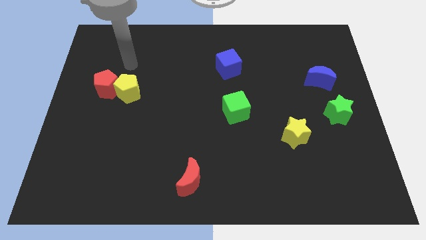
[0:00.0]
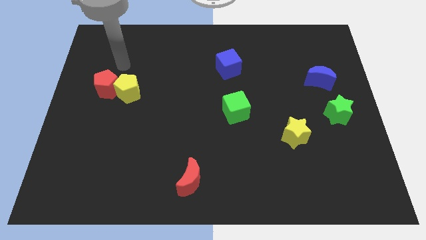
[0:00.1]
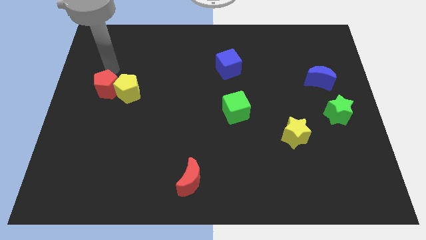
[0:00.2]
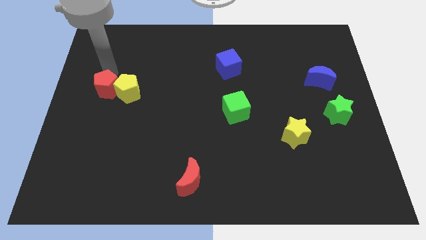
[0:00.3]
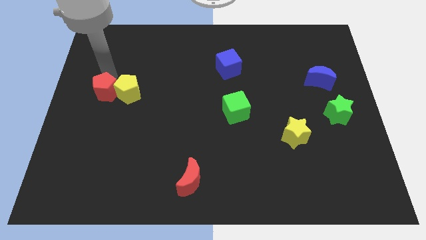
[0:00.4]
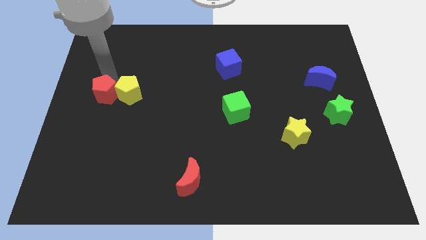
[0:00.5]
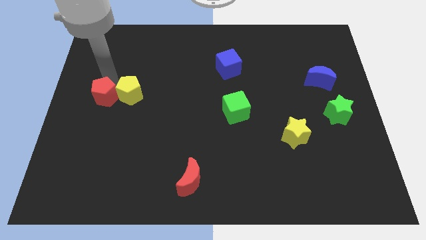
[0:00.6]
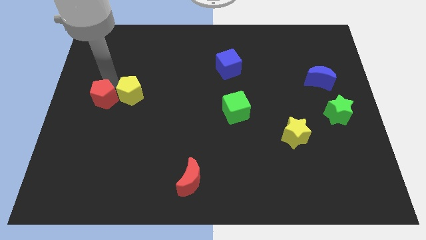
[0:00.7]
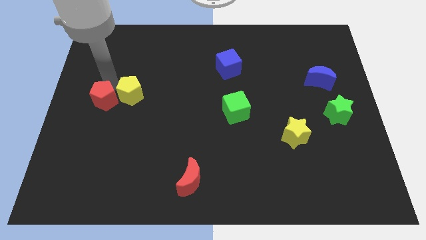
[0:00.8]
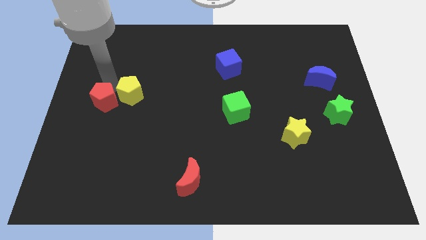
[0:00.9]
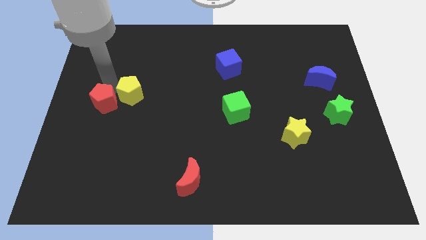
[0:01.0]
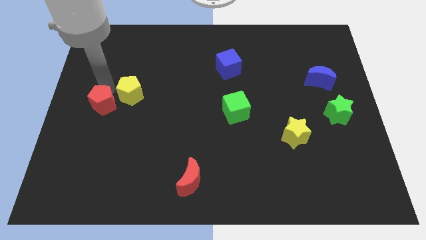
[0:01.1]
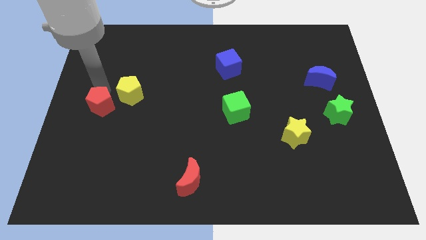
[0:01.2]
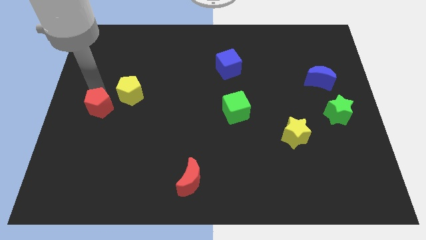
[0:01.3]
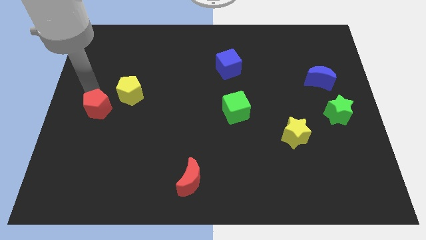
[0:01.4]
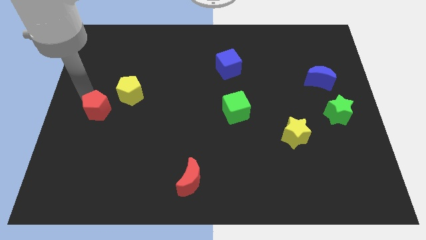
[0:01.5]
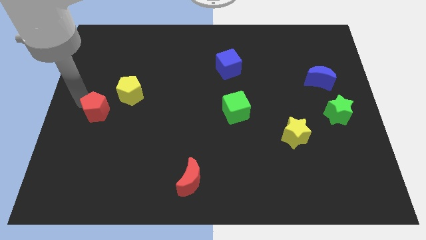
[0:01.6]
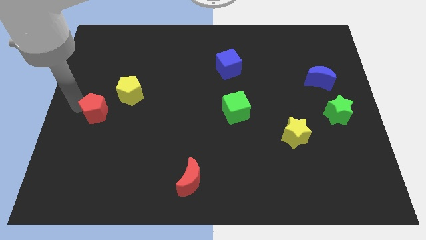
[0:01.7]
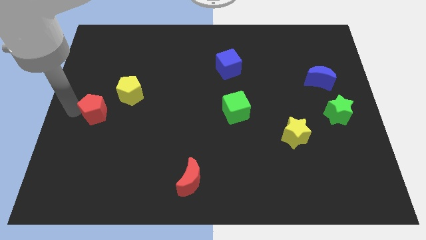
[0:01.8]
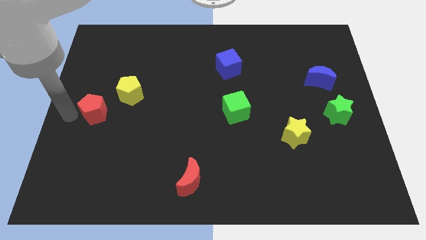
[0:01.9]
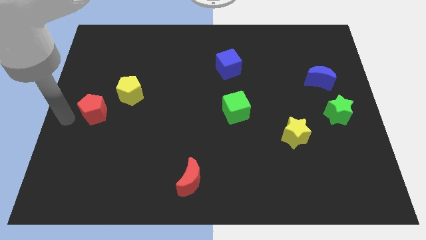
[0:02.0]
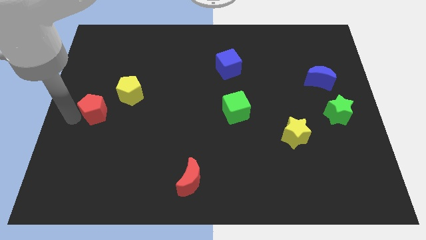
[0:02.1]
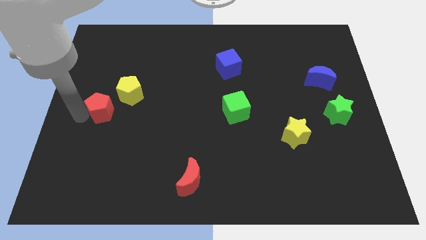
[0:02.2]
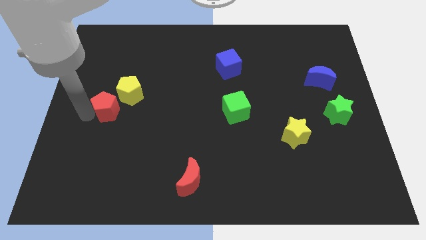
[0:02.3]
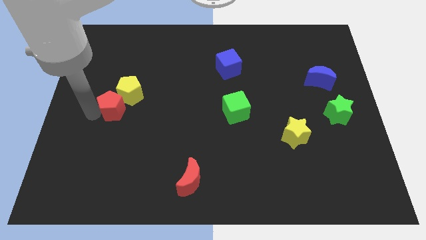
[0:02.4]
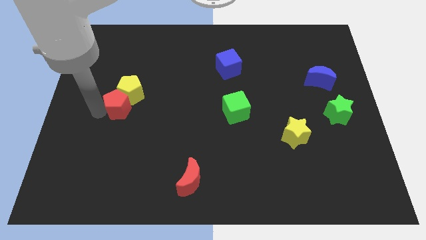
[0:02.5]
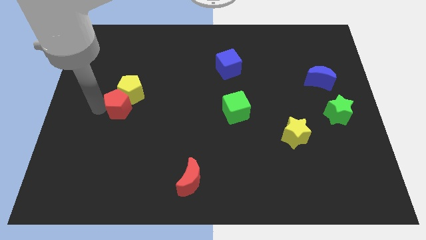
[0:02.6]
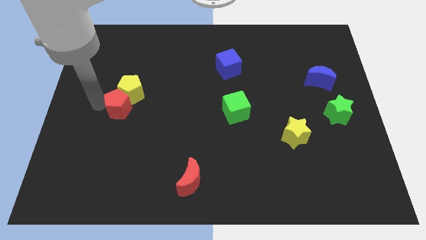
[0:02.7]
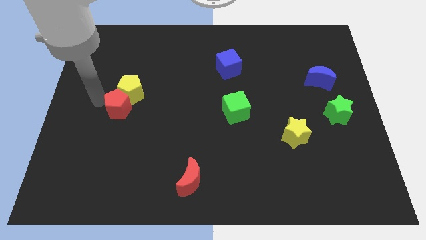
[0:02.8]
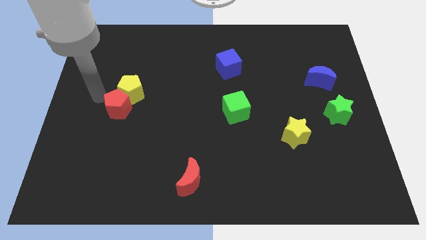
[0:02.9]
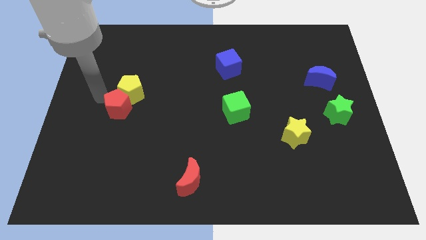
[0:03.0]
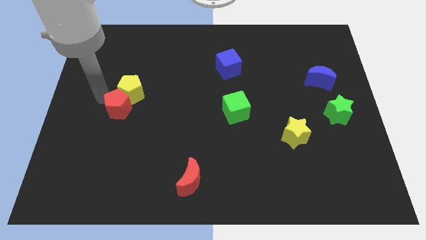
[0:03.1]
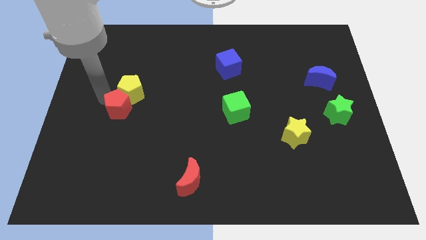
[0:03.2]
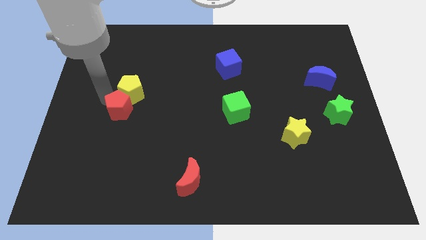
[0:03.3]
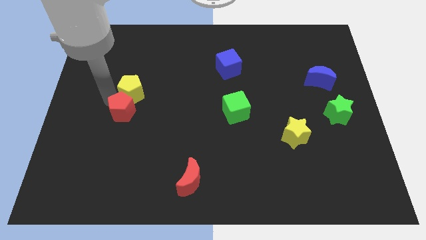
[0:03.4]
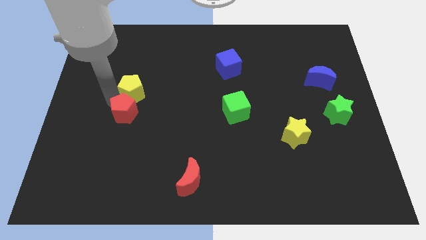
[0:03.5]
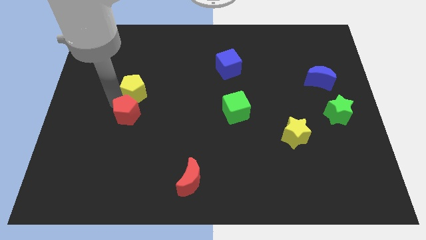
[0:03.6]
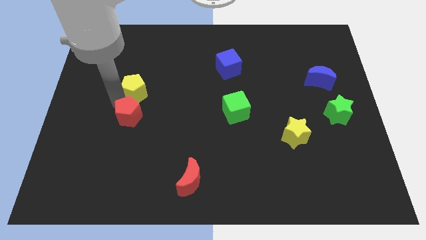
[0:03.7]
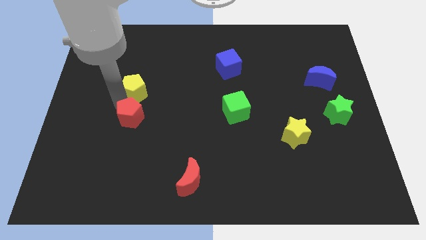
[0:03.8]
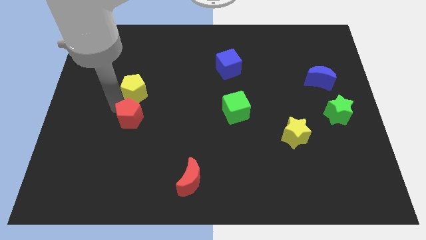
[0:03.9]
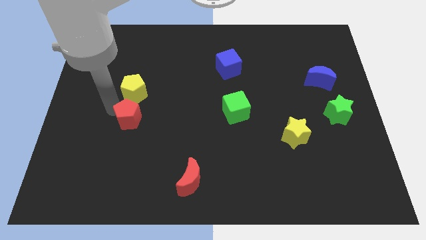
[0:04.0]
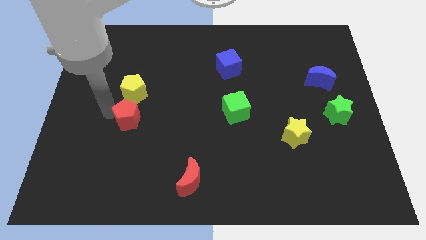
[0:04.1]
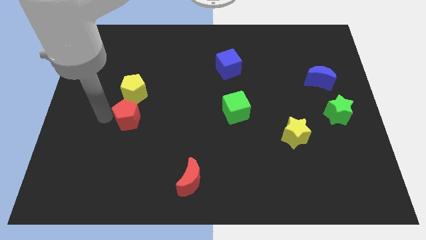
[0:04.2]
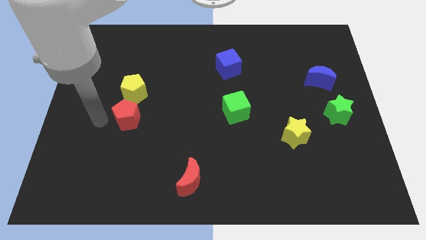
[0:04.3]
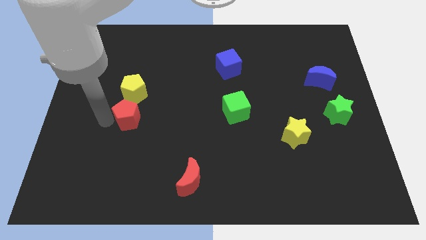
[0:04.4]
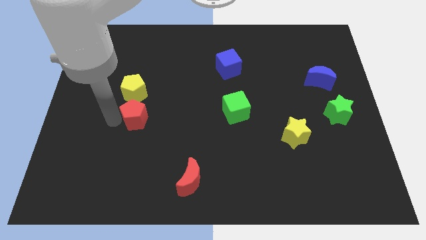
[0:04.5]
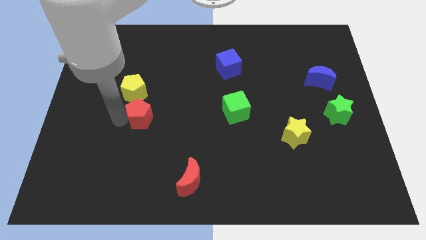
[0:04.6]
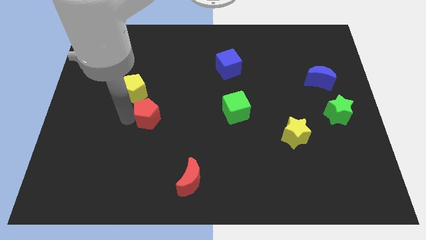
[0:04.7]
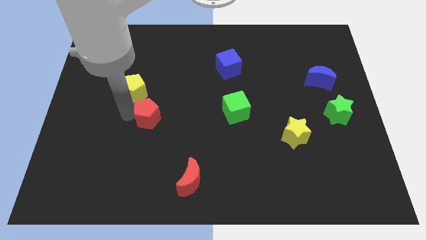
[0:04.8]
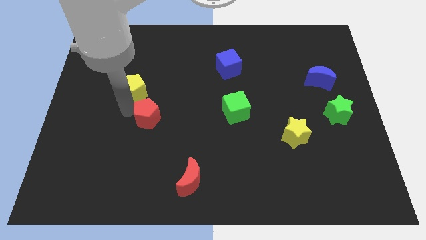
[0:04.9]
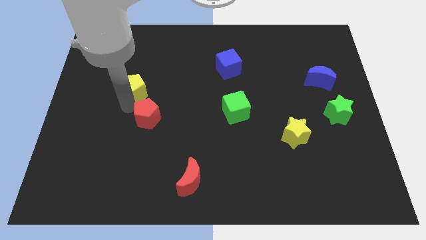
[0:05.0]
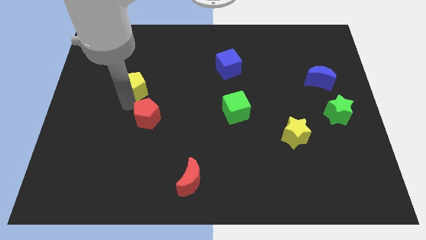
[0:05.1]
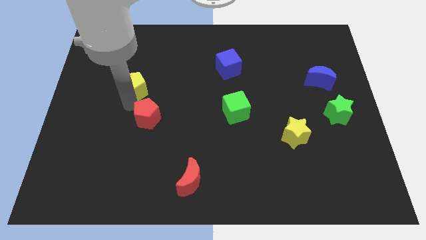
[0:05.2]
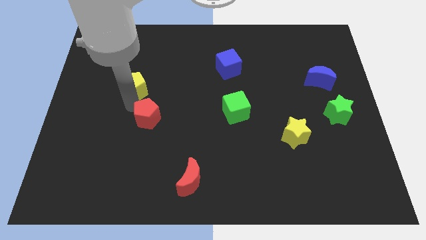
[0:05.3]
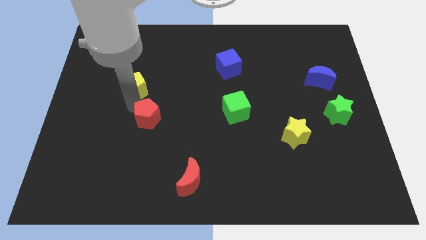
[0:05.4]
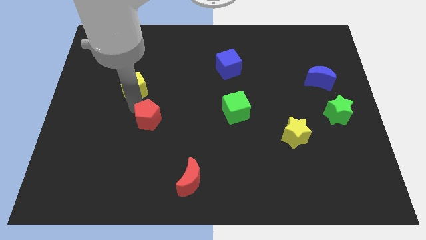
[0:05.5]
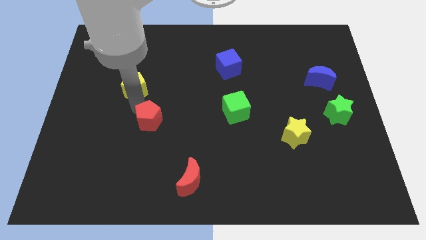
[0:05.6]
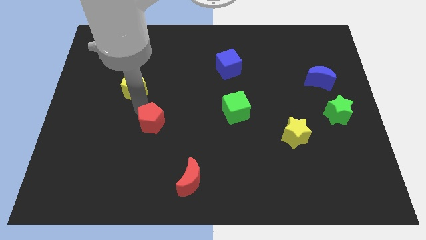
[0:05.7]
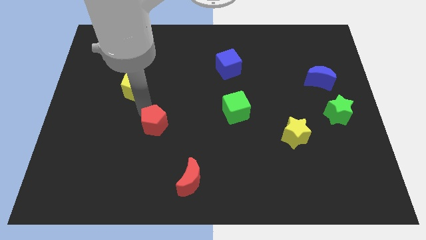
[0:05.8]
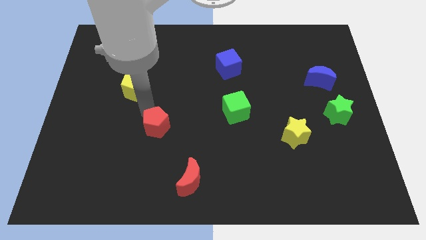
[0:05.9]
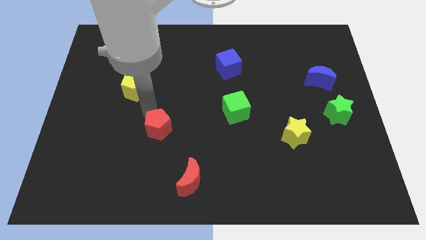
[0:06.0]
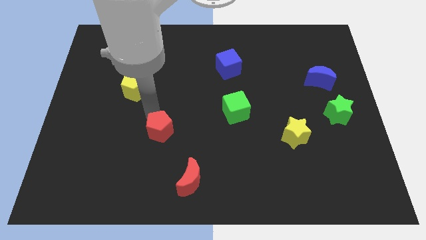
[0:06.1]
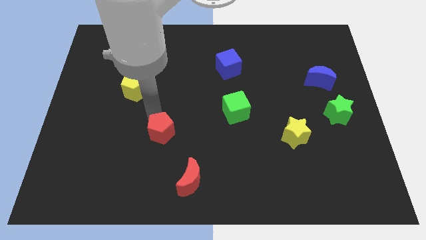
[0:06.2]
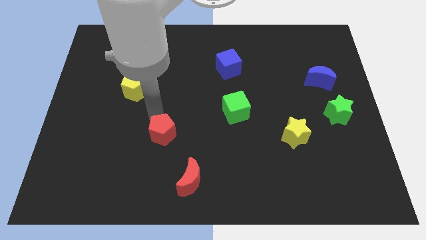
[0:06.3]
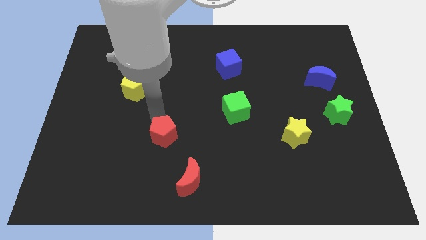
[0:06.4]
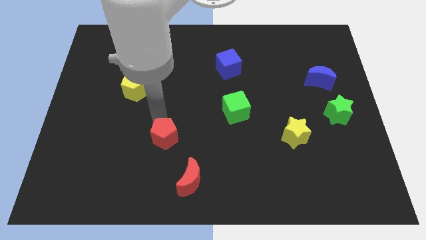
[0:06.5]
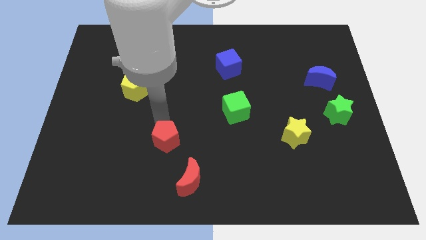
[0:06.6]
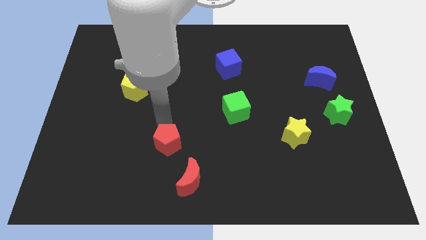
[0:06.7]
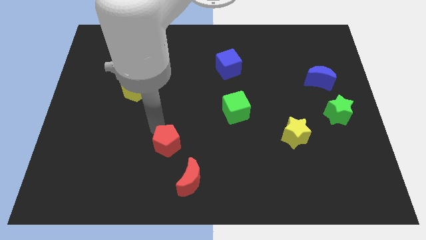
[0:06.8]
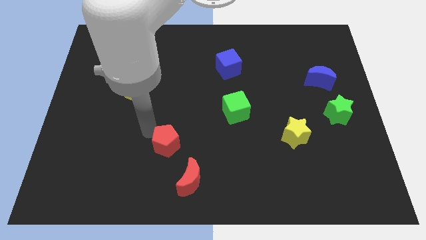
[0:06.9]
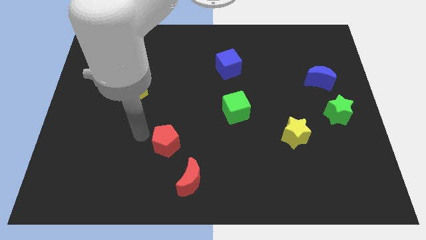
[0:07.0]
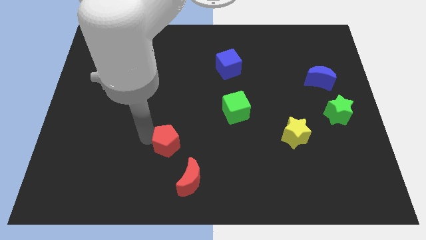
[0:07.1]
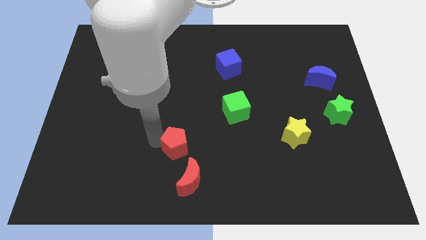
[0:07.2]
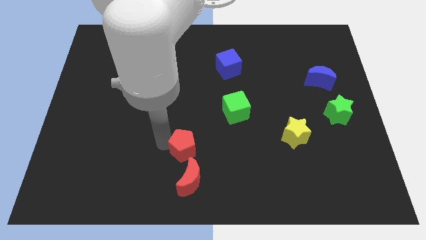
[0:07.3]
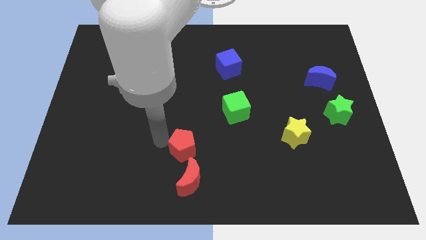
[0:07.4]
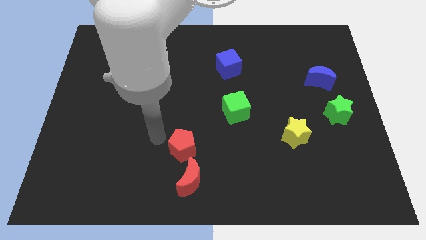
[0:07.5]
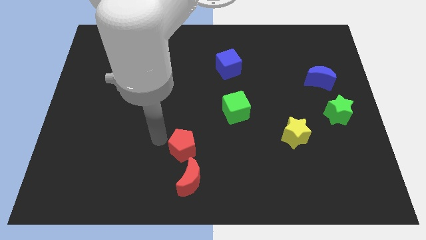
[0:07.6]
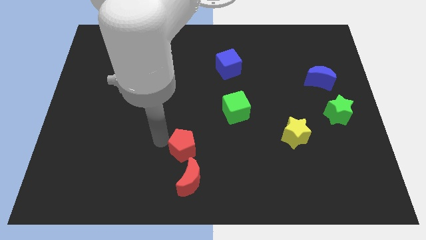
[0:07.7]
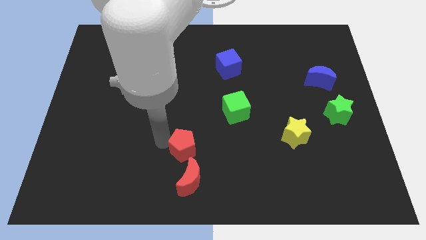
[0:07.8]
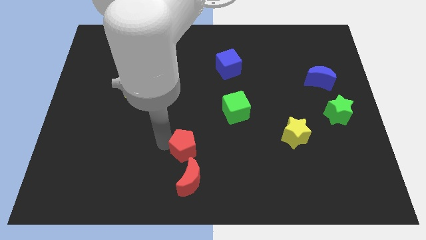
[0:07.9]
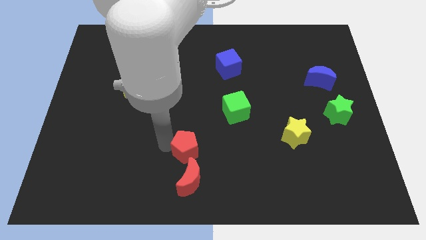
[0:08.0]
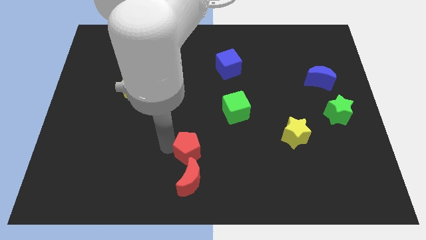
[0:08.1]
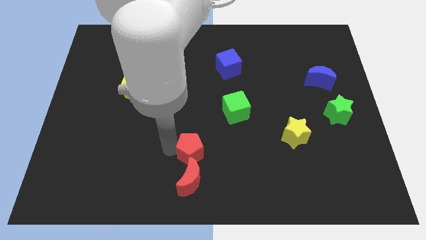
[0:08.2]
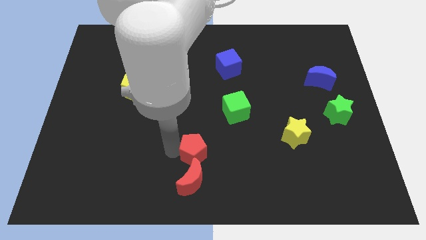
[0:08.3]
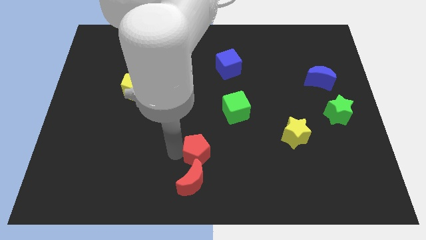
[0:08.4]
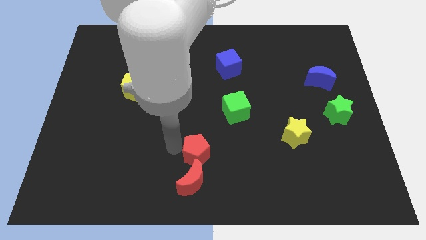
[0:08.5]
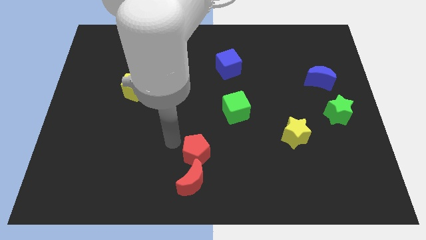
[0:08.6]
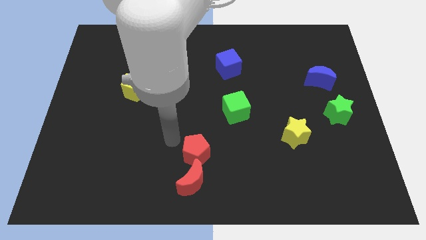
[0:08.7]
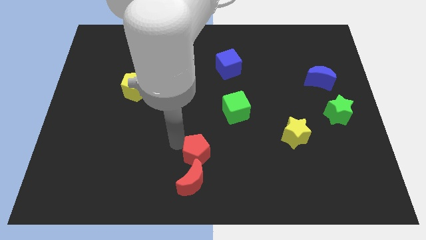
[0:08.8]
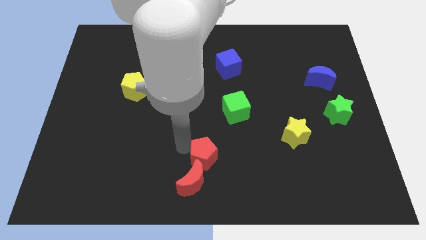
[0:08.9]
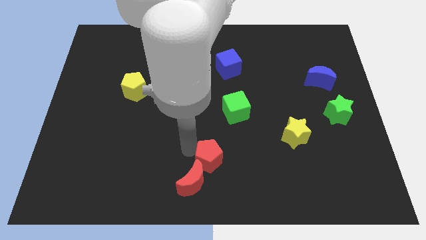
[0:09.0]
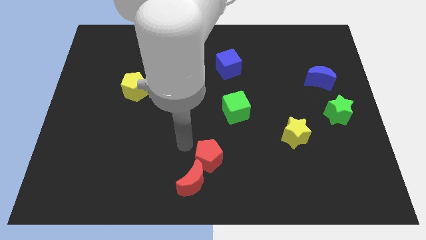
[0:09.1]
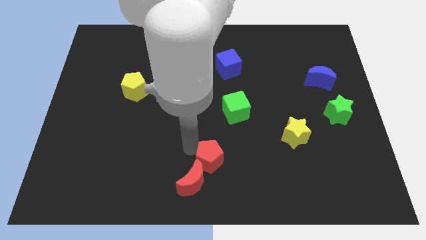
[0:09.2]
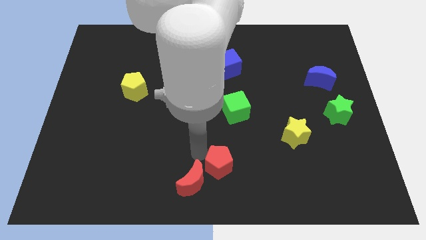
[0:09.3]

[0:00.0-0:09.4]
slide the red pentagon to the right of the red moon
